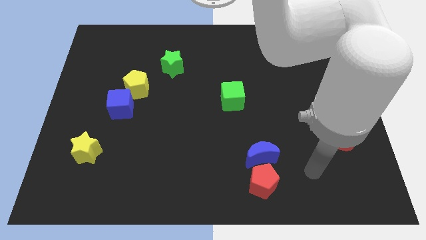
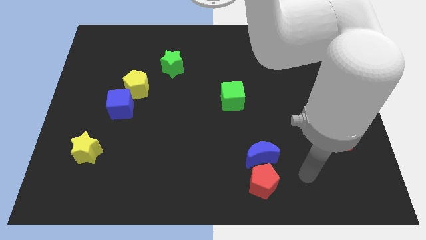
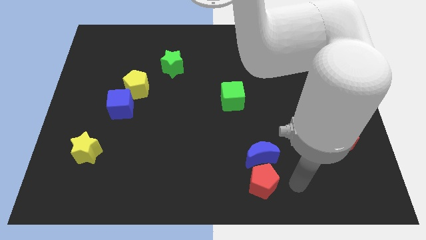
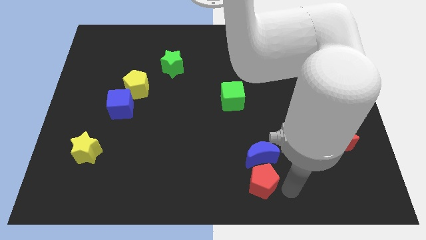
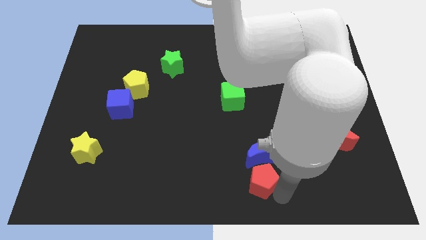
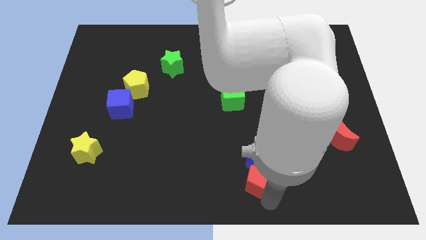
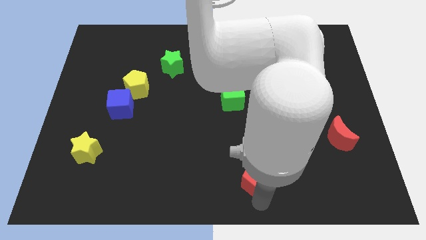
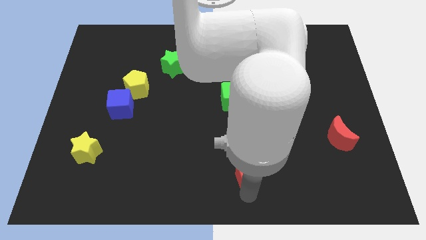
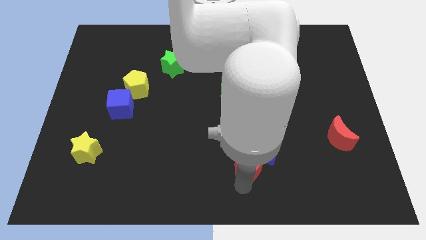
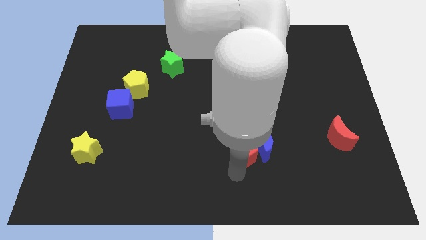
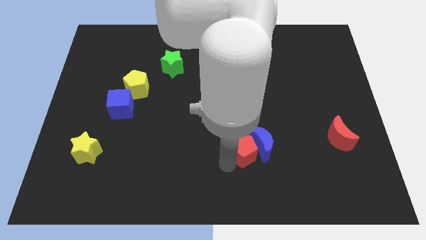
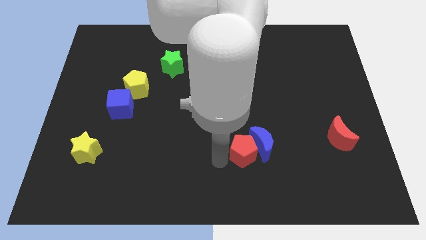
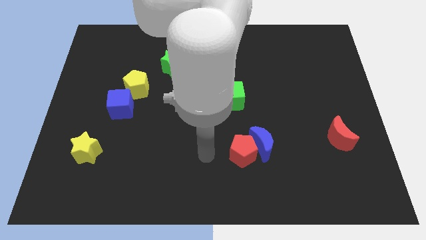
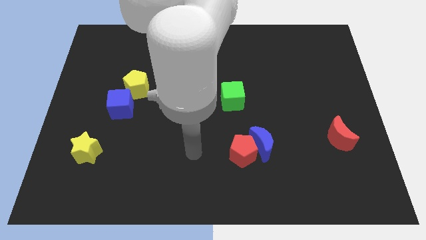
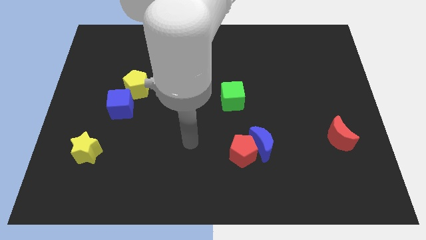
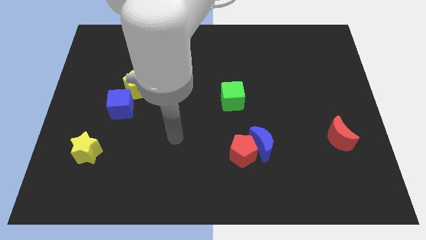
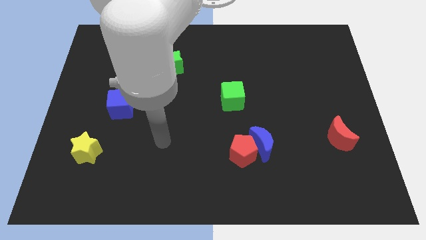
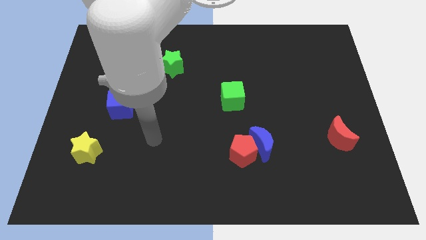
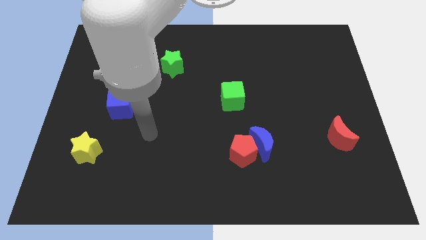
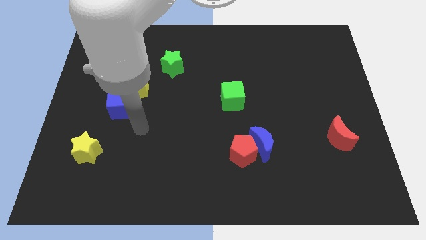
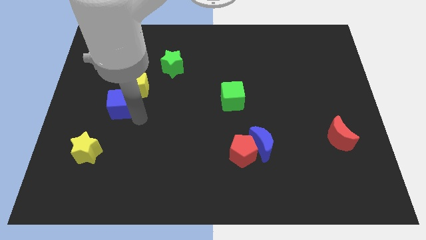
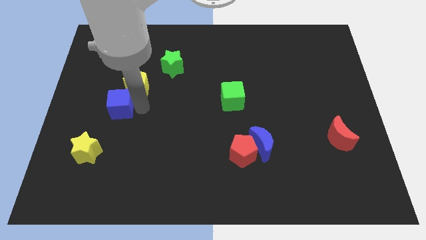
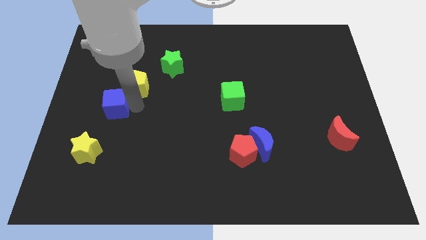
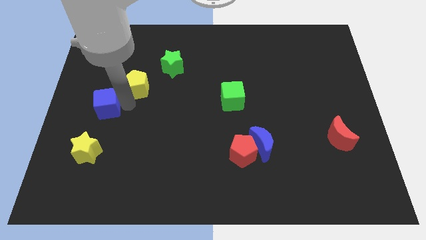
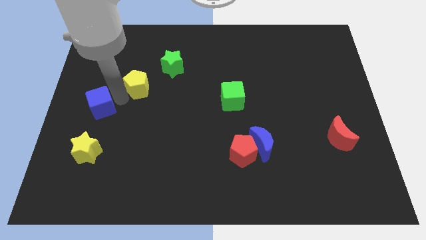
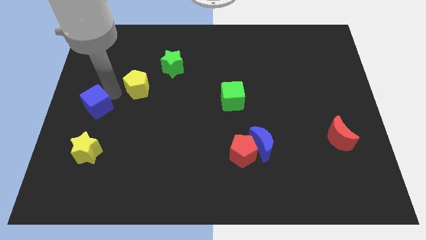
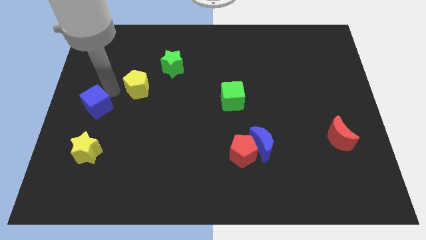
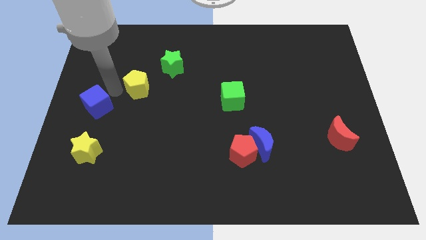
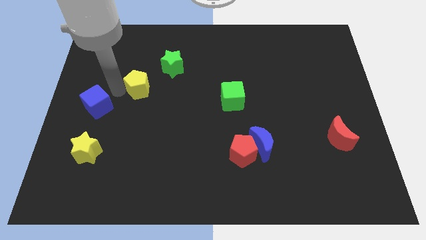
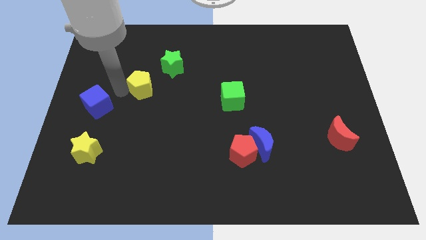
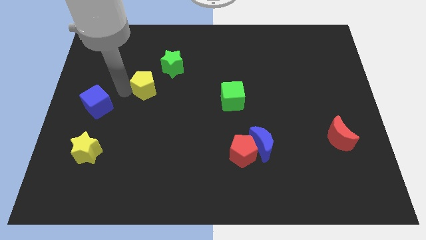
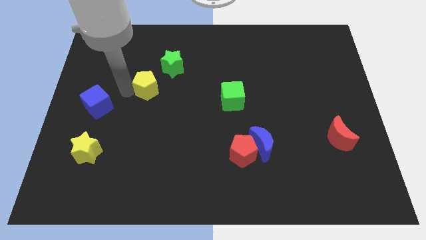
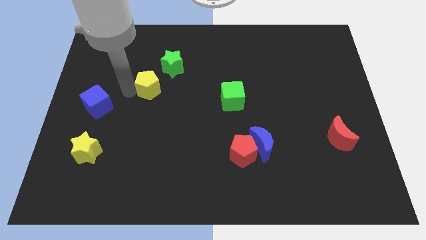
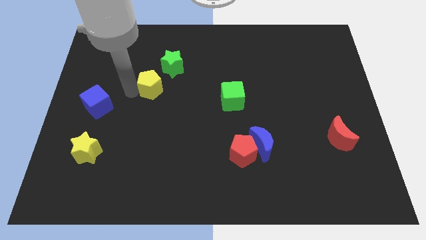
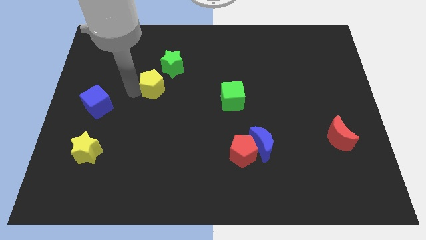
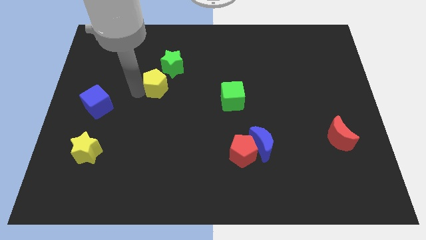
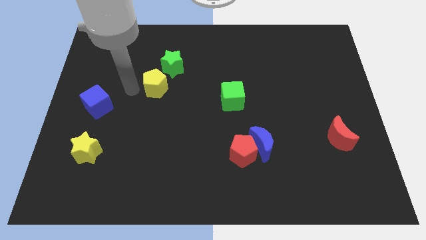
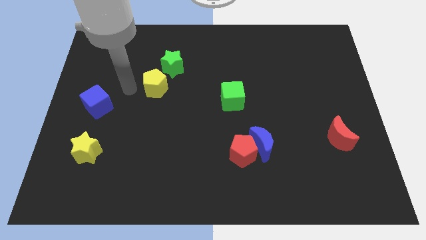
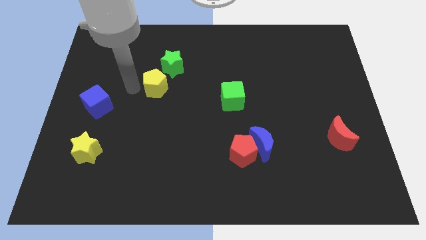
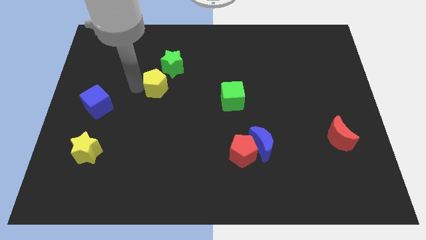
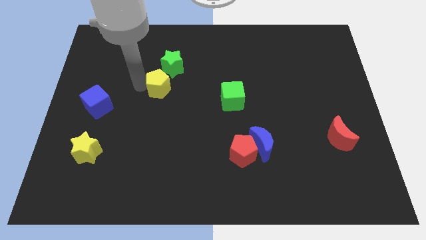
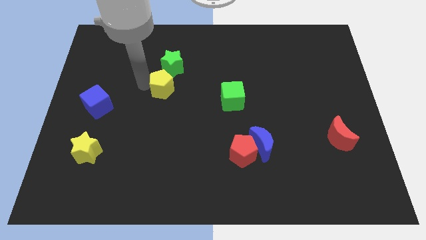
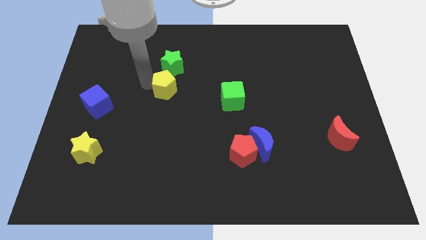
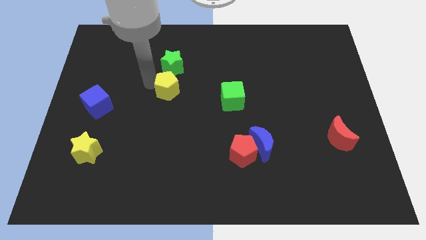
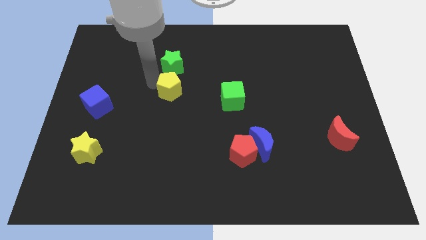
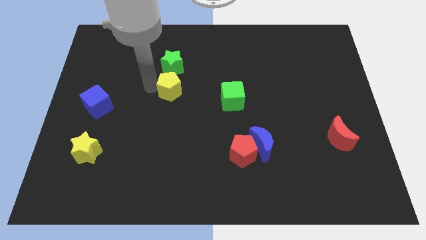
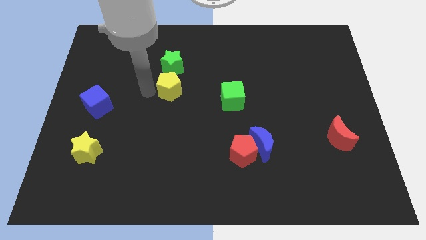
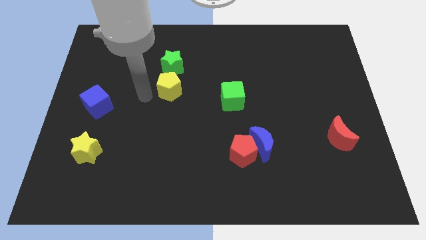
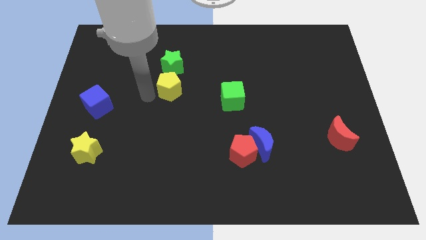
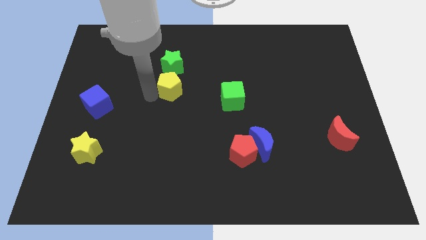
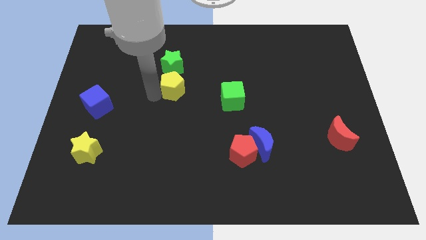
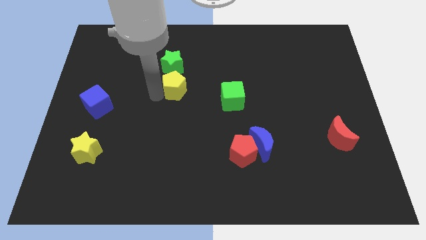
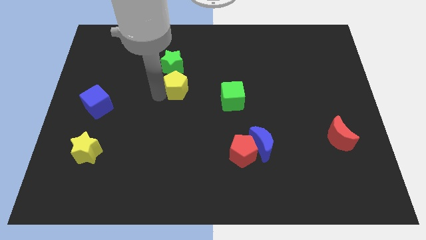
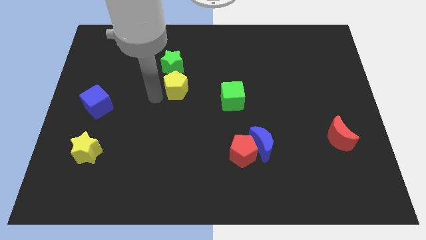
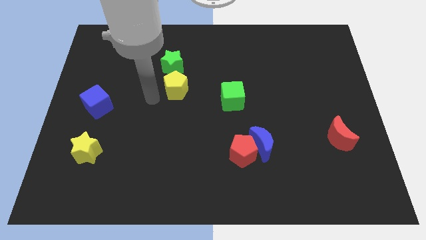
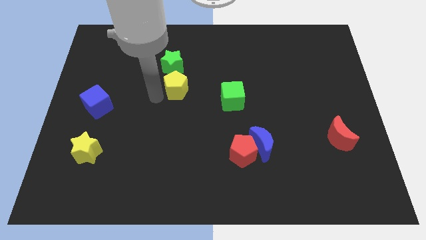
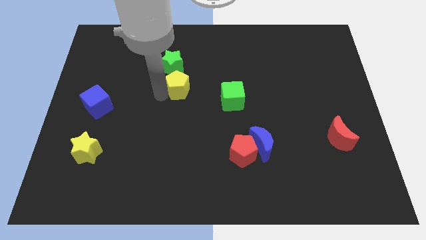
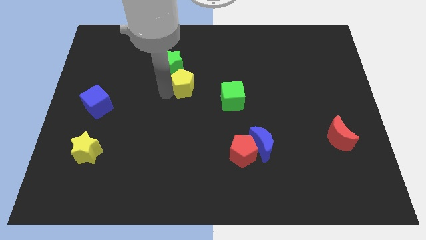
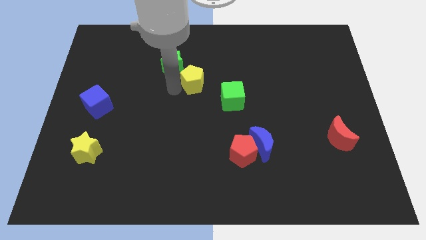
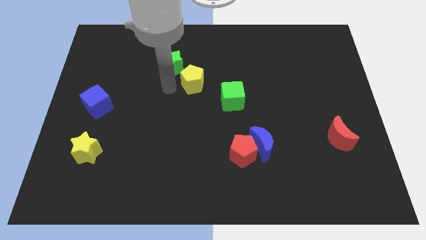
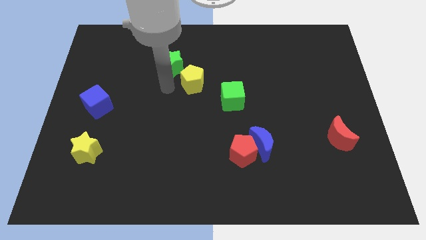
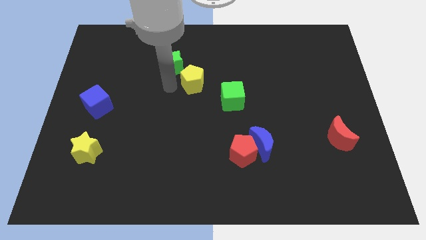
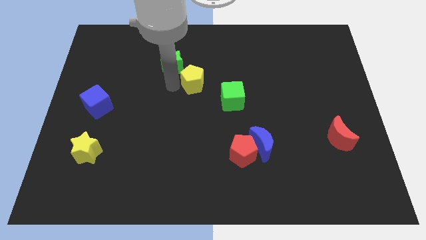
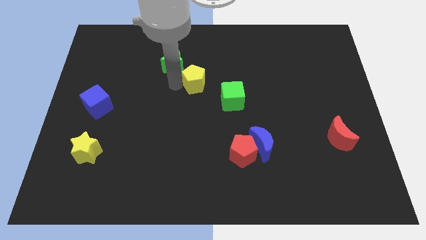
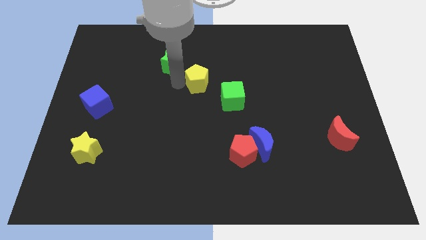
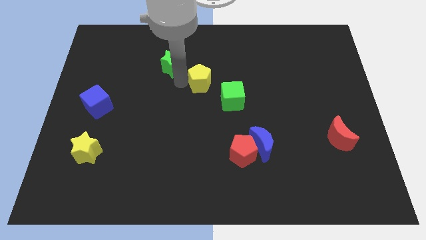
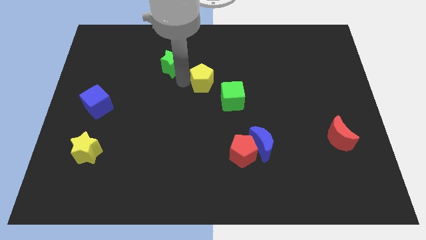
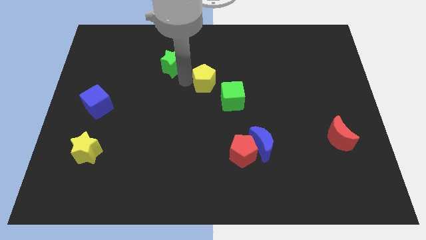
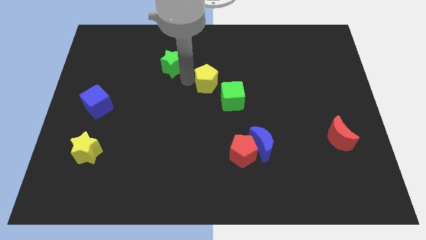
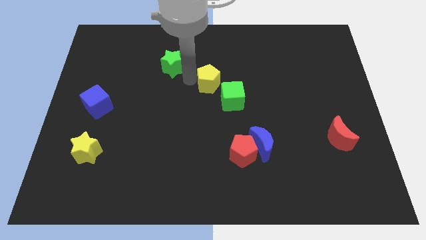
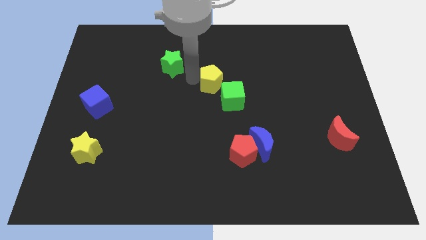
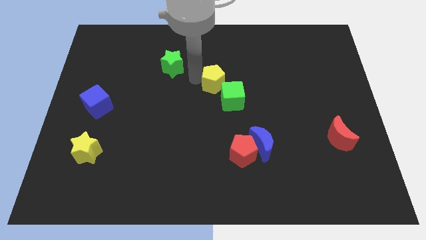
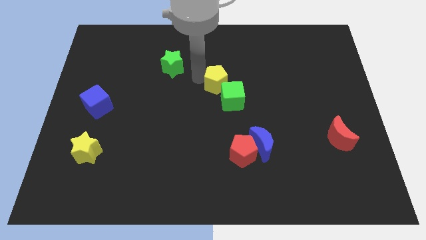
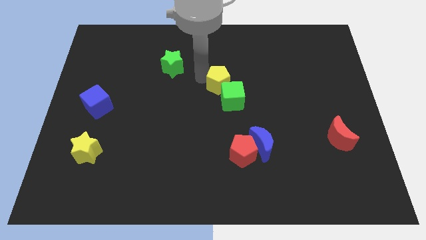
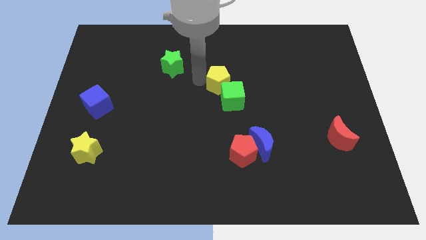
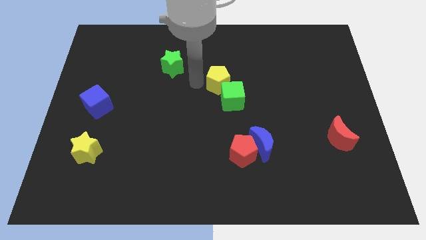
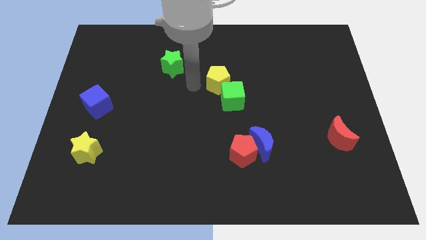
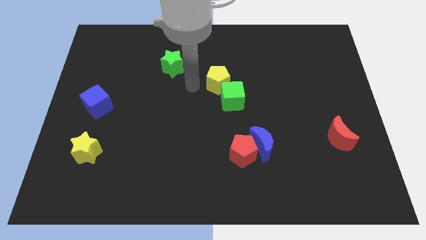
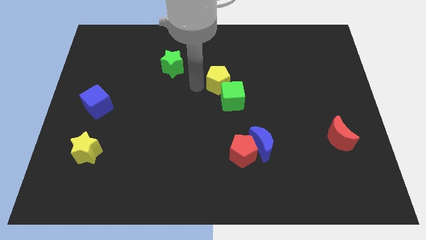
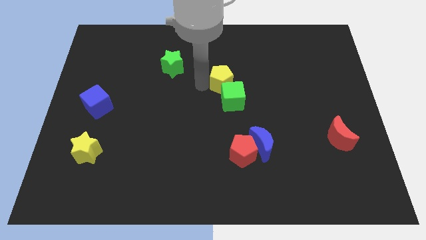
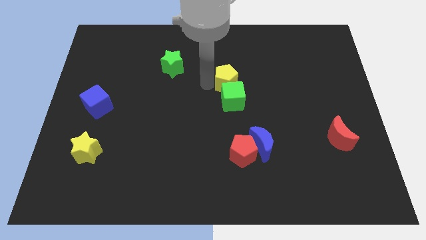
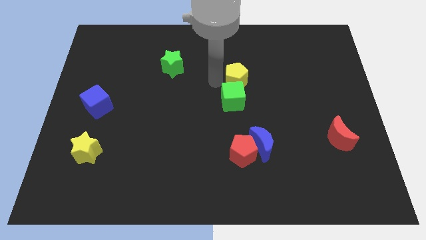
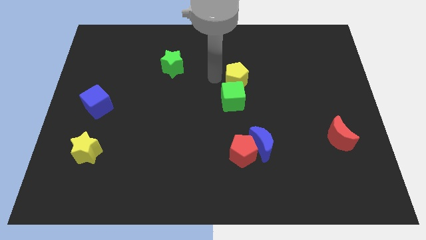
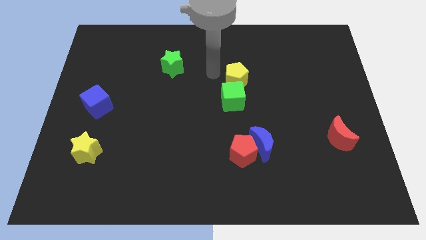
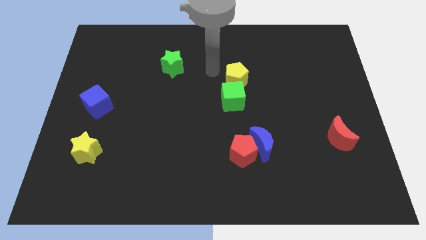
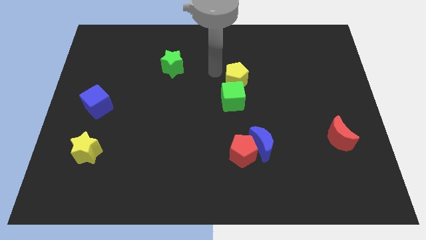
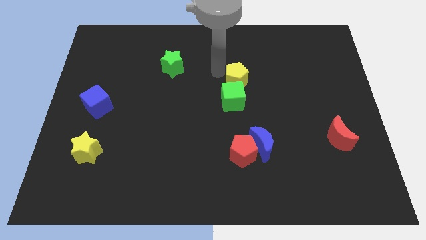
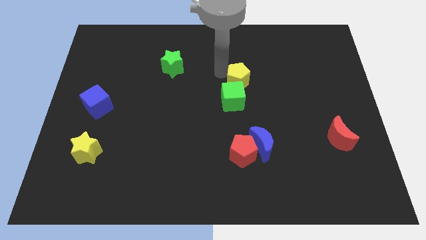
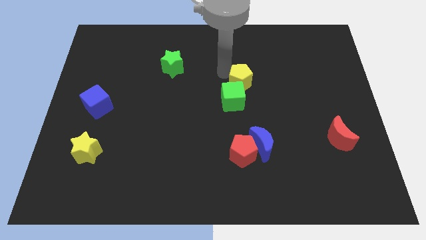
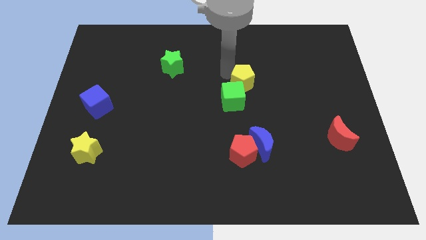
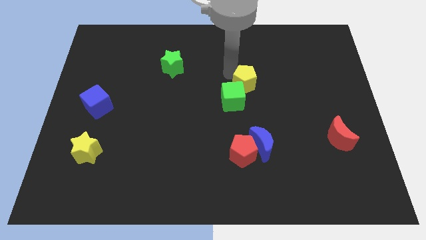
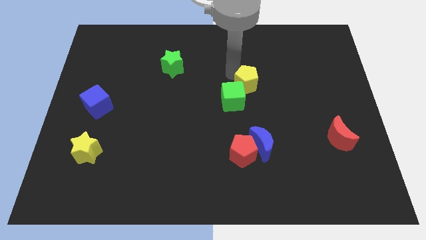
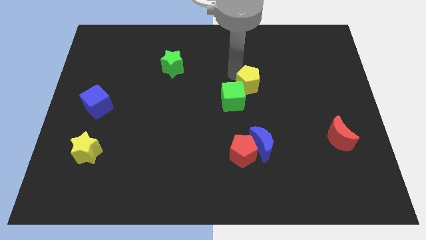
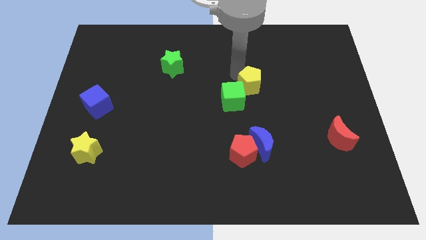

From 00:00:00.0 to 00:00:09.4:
slide the yellow pentagon right of the green cube
